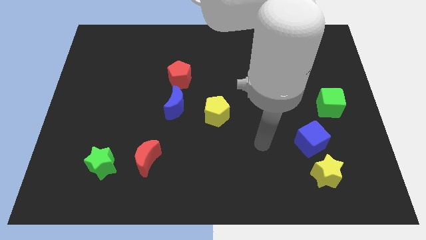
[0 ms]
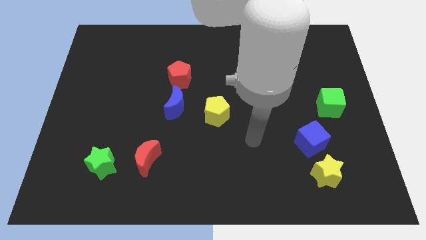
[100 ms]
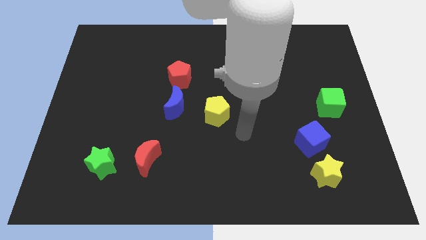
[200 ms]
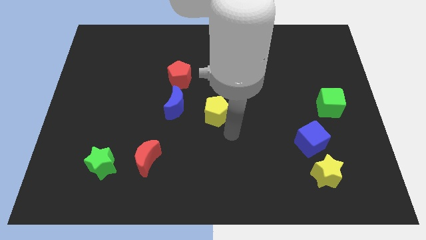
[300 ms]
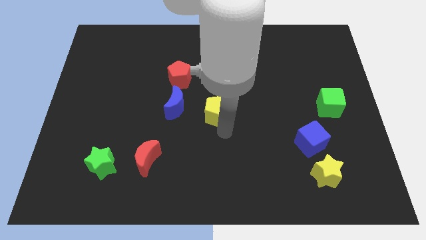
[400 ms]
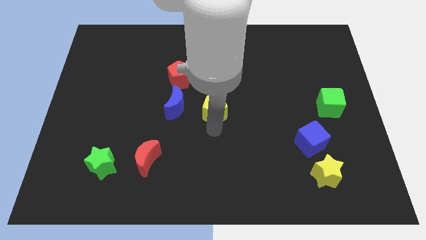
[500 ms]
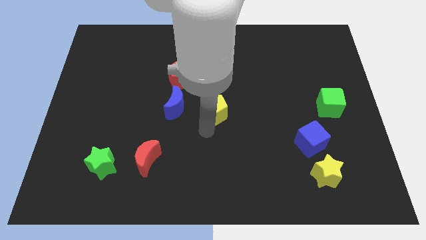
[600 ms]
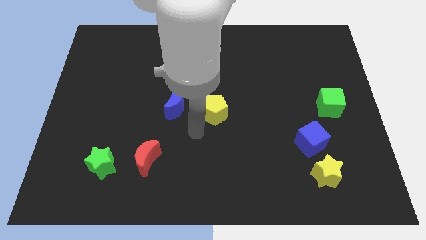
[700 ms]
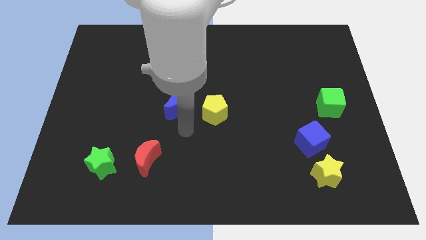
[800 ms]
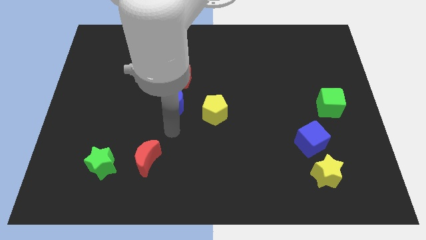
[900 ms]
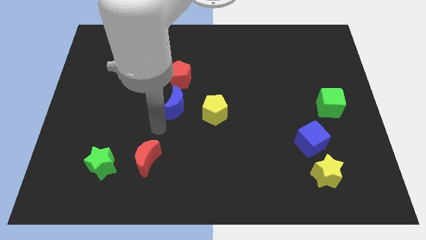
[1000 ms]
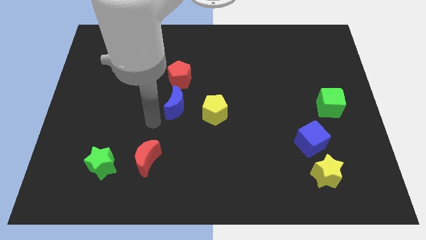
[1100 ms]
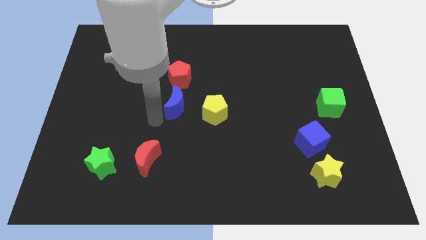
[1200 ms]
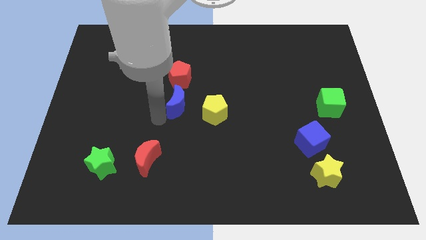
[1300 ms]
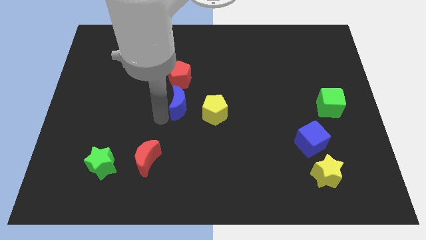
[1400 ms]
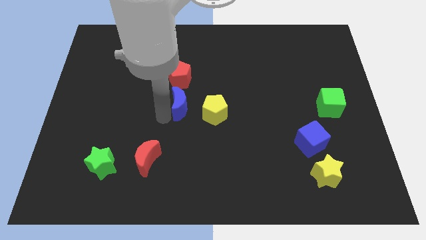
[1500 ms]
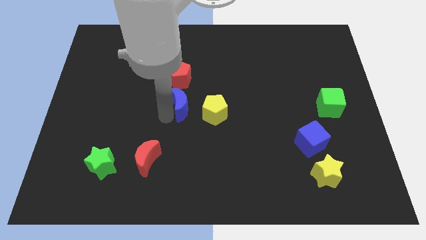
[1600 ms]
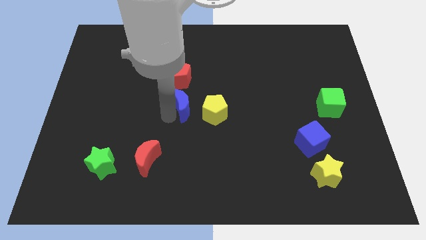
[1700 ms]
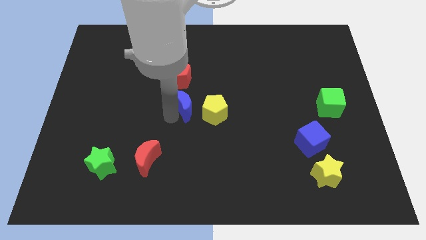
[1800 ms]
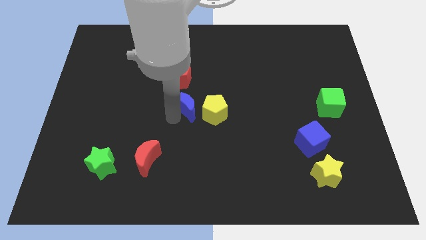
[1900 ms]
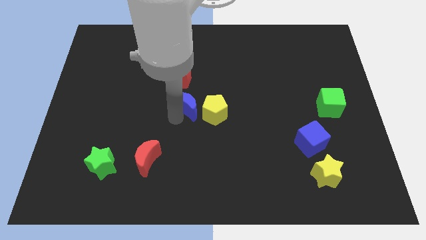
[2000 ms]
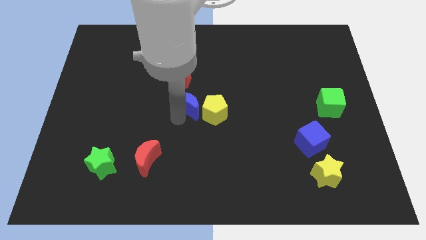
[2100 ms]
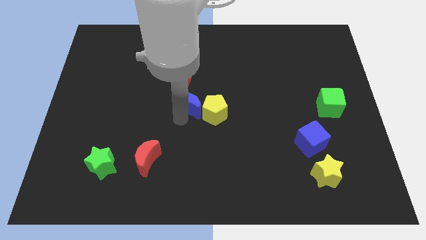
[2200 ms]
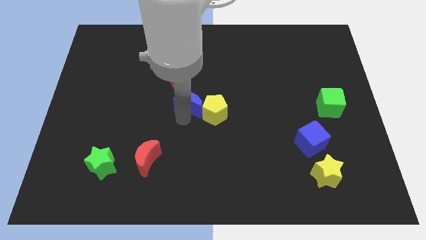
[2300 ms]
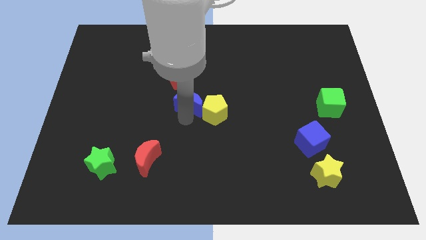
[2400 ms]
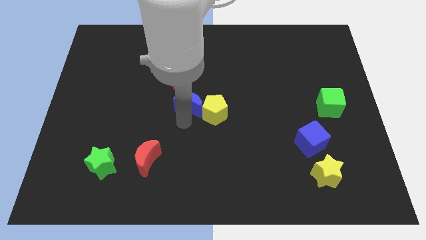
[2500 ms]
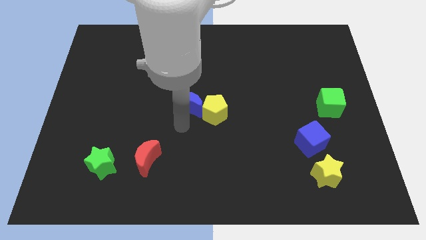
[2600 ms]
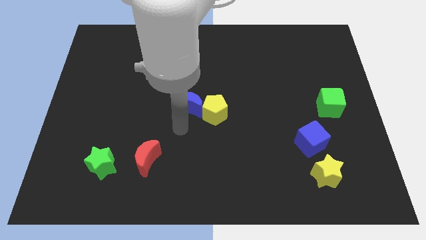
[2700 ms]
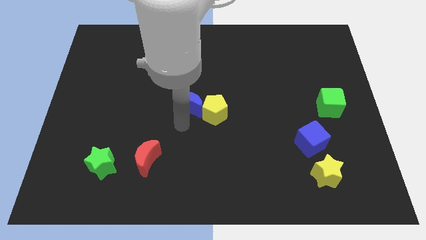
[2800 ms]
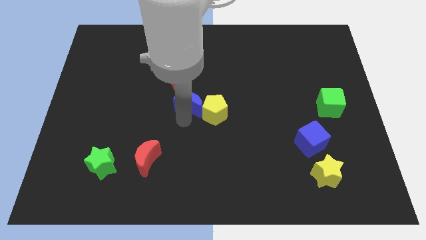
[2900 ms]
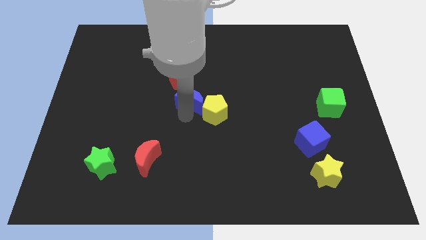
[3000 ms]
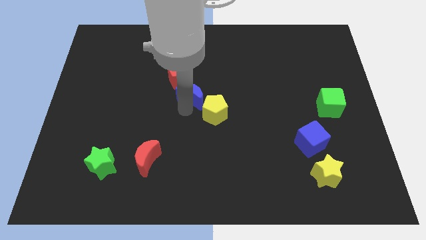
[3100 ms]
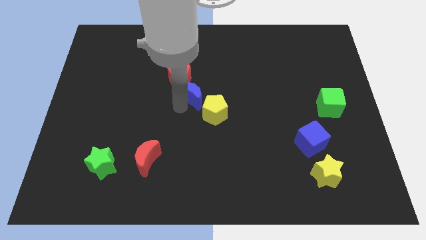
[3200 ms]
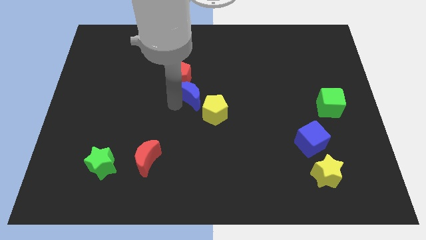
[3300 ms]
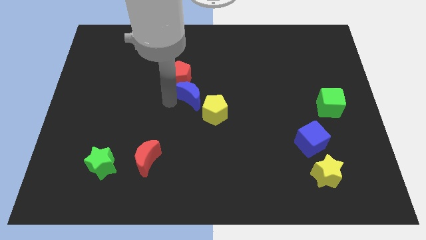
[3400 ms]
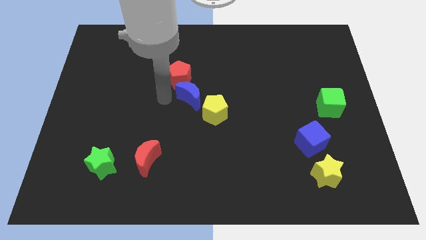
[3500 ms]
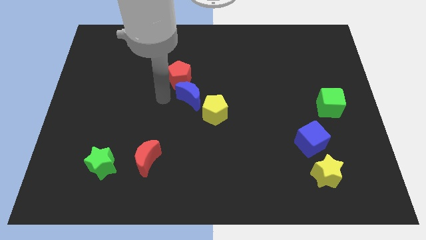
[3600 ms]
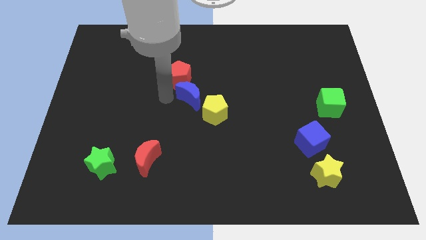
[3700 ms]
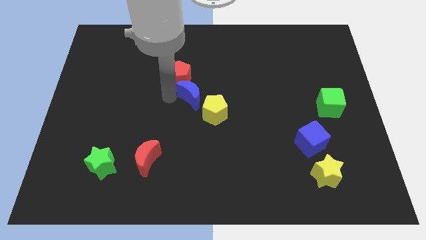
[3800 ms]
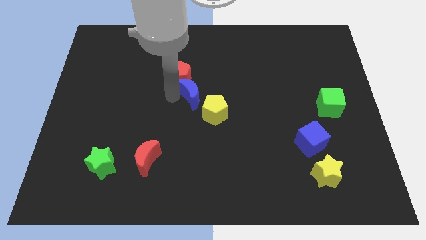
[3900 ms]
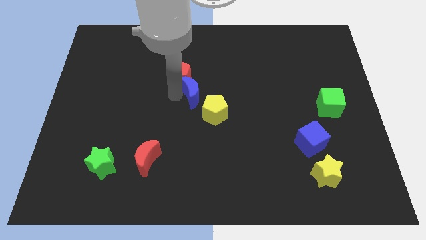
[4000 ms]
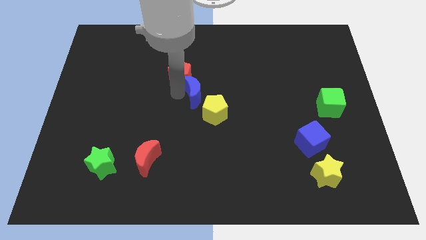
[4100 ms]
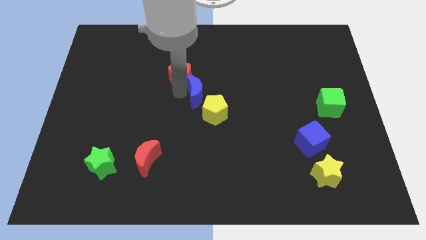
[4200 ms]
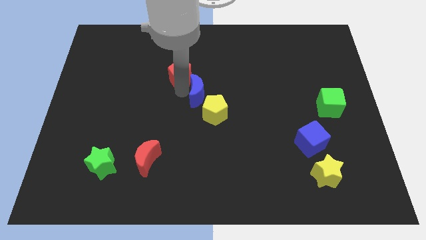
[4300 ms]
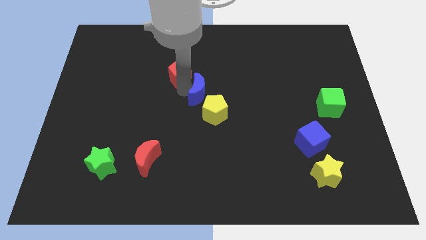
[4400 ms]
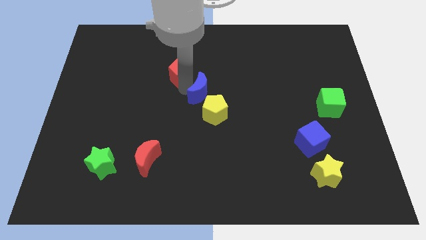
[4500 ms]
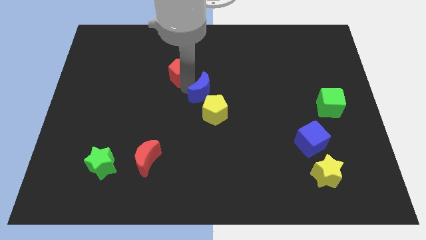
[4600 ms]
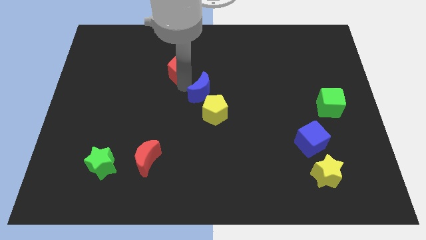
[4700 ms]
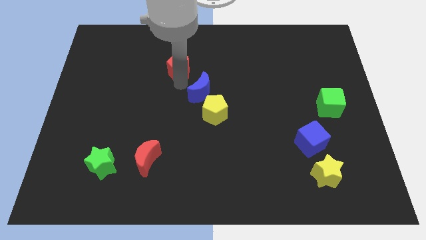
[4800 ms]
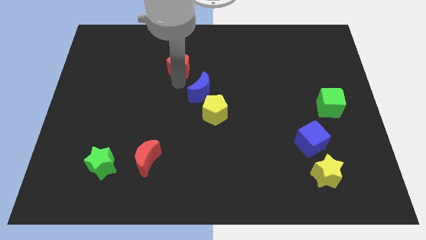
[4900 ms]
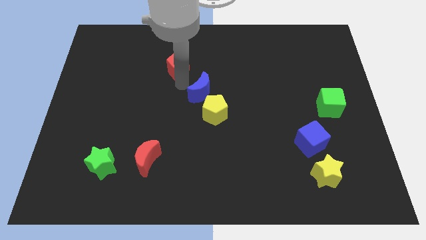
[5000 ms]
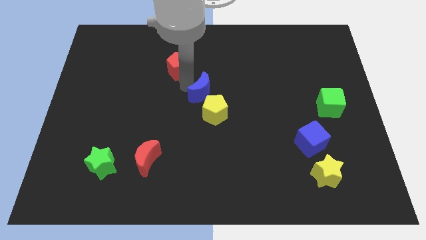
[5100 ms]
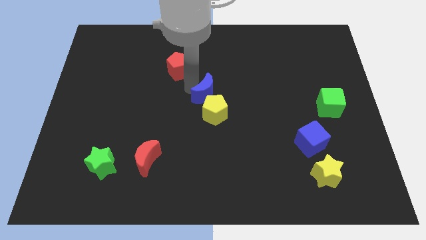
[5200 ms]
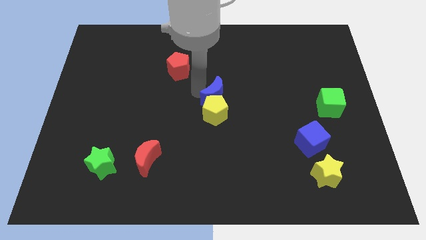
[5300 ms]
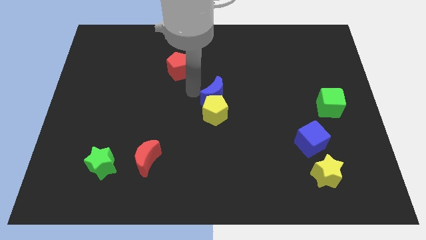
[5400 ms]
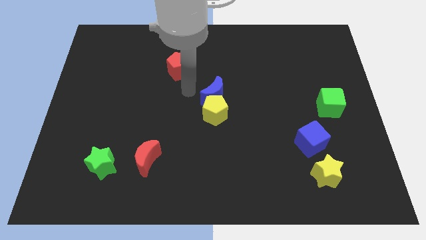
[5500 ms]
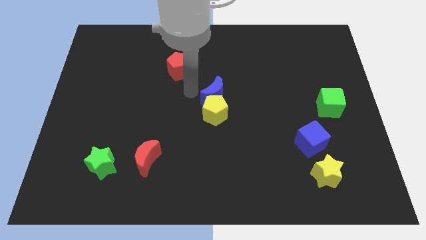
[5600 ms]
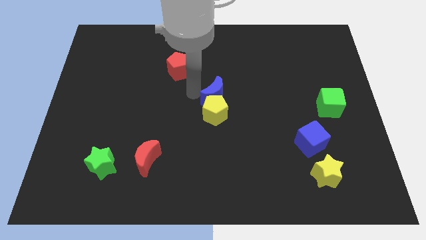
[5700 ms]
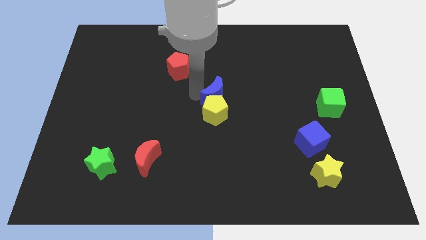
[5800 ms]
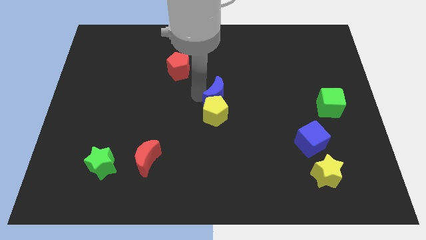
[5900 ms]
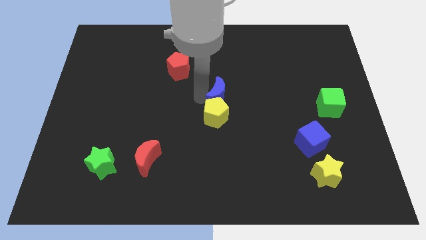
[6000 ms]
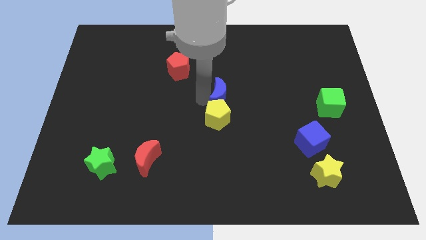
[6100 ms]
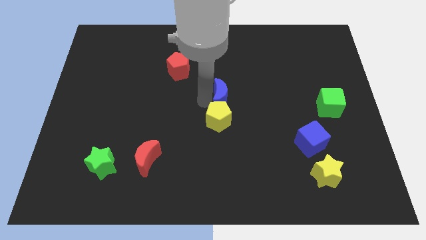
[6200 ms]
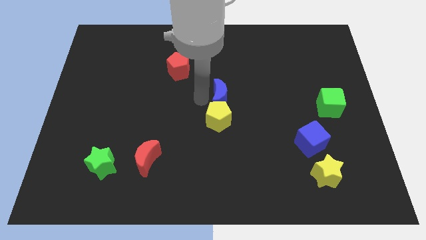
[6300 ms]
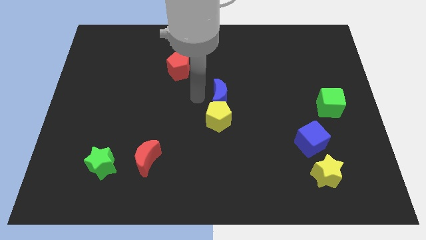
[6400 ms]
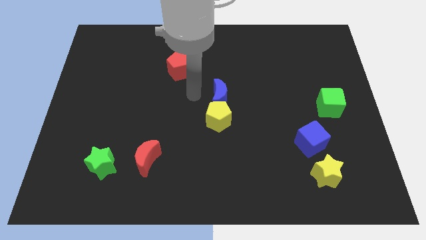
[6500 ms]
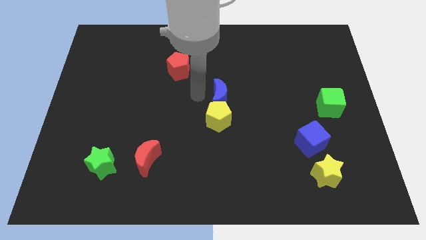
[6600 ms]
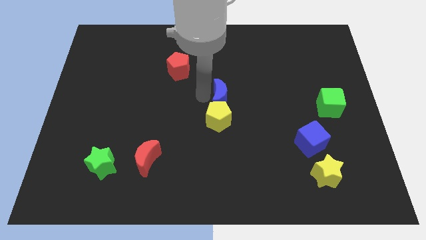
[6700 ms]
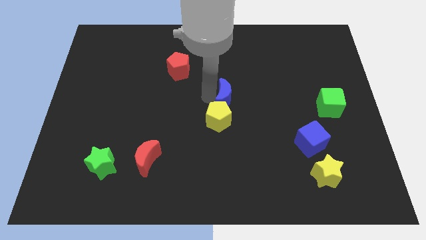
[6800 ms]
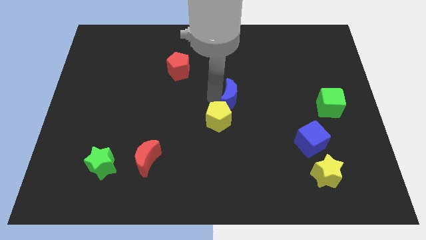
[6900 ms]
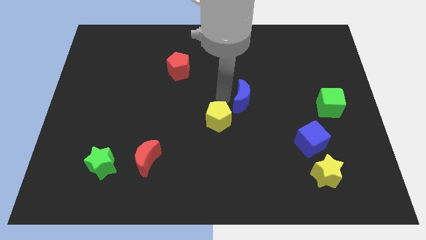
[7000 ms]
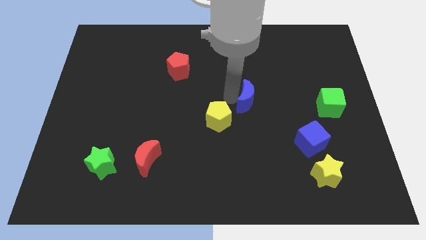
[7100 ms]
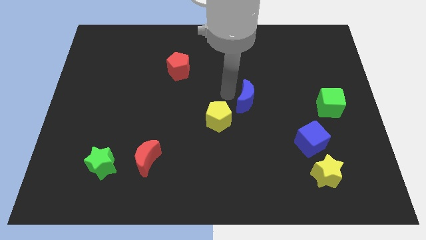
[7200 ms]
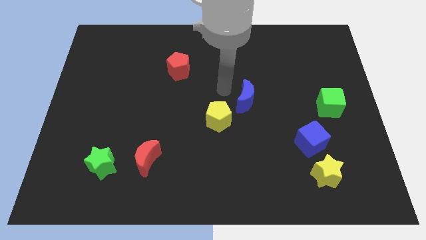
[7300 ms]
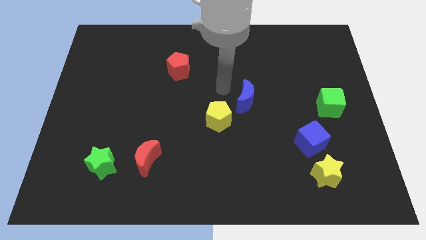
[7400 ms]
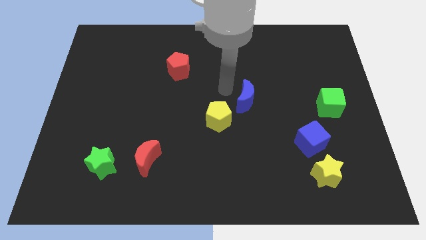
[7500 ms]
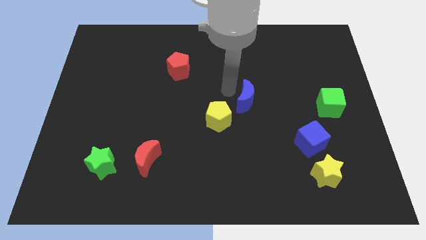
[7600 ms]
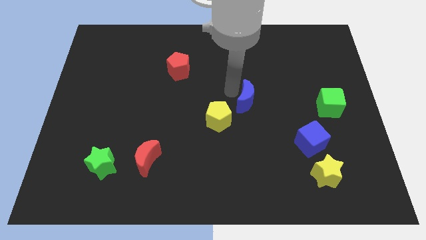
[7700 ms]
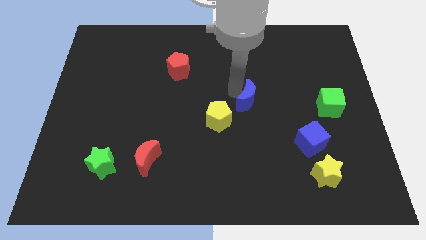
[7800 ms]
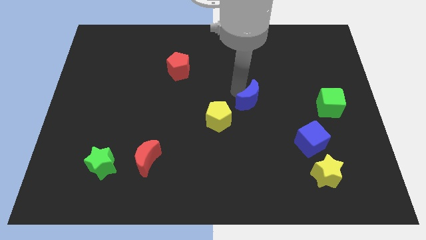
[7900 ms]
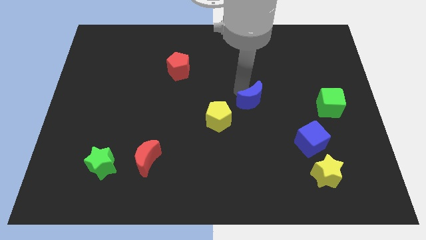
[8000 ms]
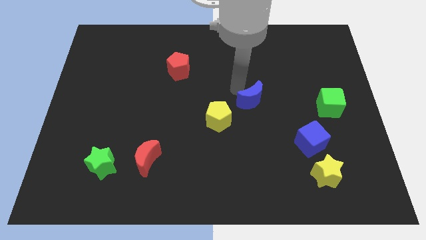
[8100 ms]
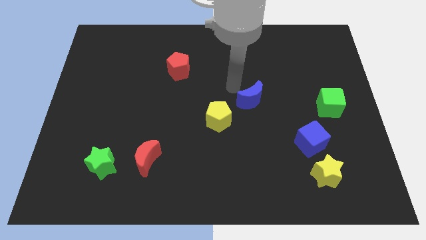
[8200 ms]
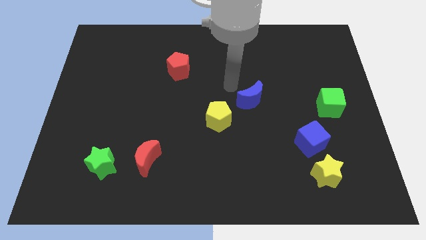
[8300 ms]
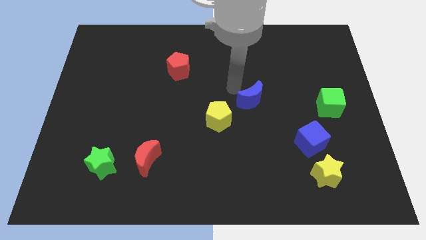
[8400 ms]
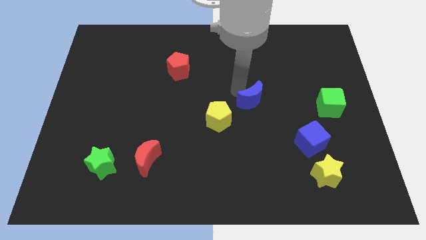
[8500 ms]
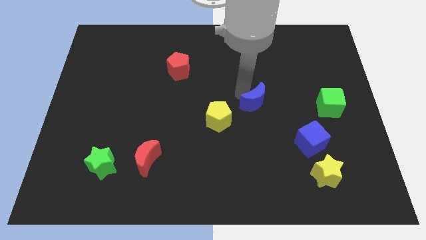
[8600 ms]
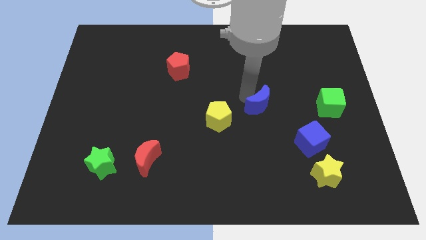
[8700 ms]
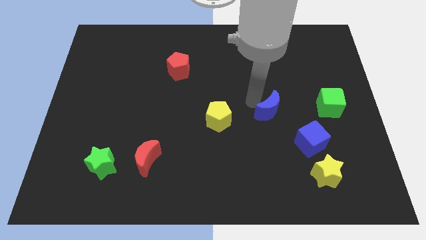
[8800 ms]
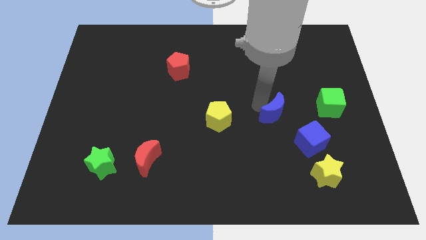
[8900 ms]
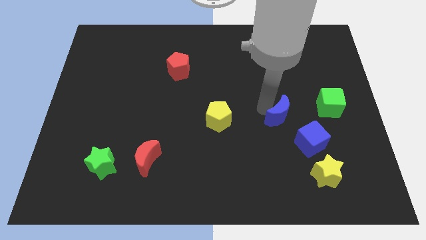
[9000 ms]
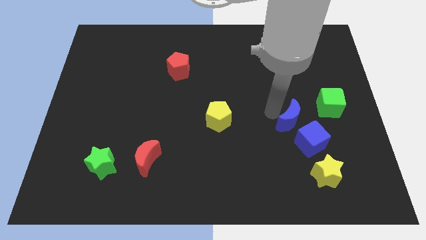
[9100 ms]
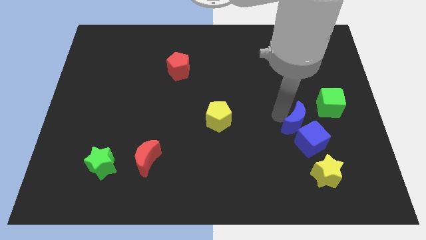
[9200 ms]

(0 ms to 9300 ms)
slide the blue moon above the yellow star
